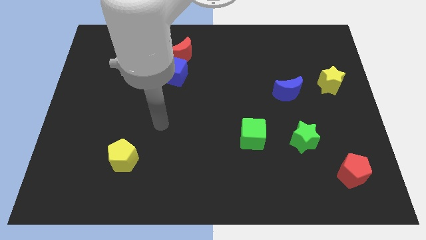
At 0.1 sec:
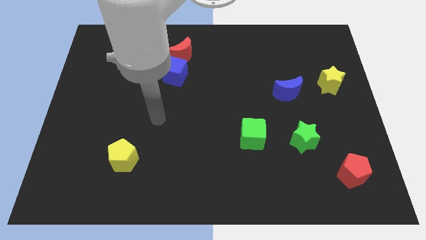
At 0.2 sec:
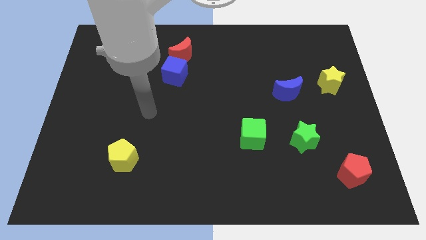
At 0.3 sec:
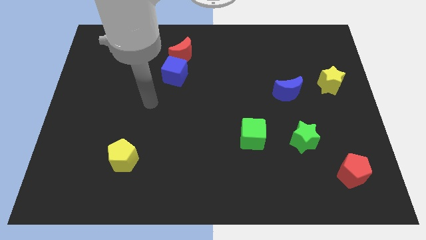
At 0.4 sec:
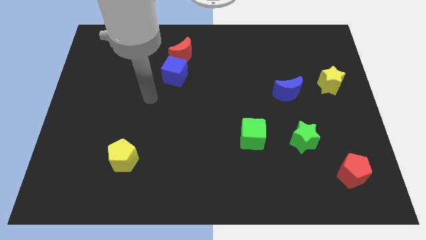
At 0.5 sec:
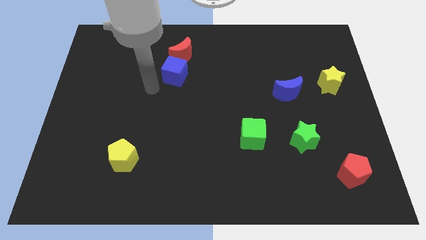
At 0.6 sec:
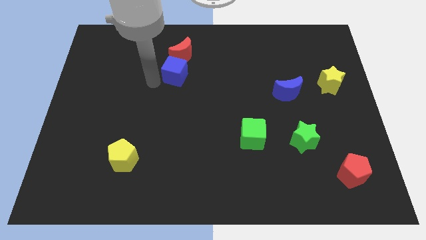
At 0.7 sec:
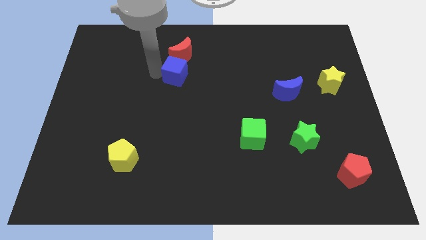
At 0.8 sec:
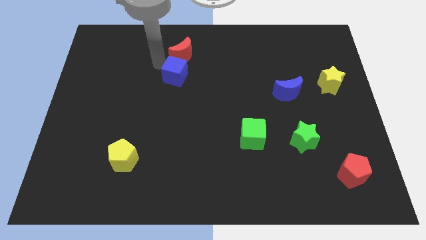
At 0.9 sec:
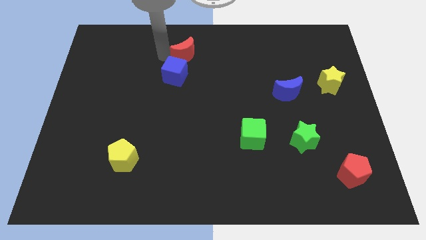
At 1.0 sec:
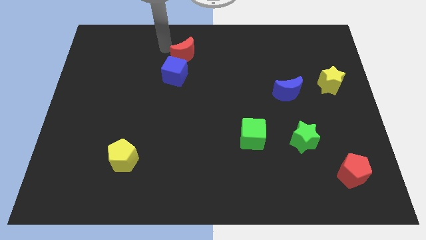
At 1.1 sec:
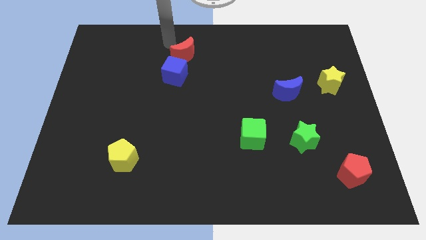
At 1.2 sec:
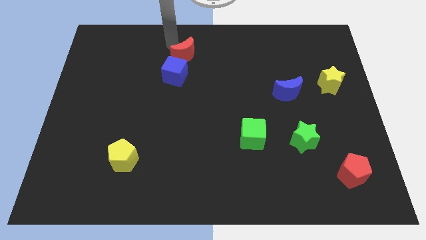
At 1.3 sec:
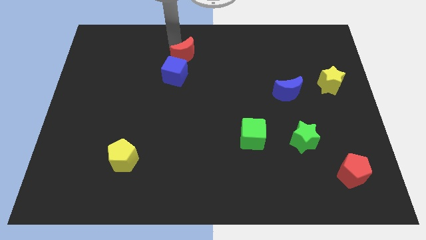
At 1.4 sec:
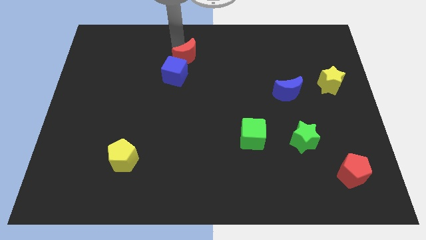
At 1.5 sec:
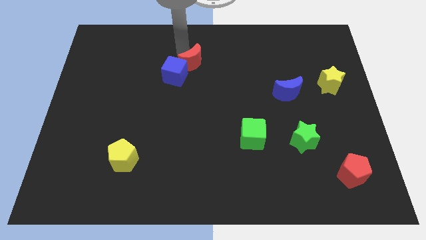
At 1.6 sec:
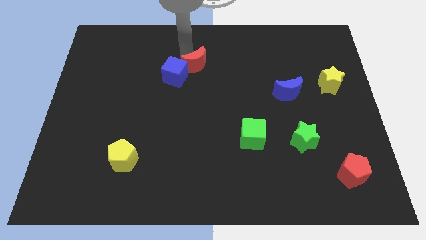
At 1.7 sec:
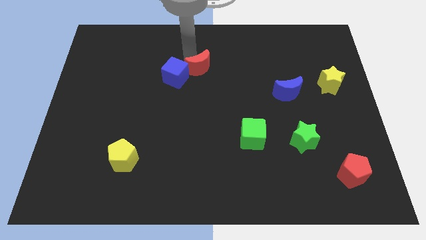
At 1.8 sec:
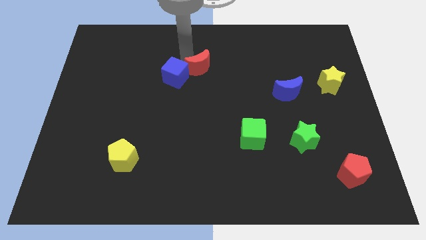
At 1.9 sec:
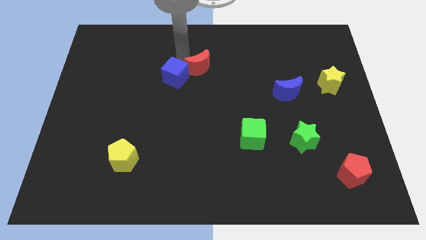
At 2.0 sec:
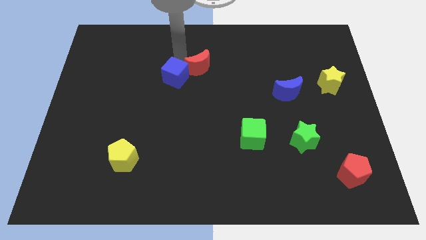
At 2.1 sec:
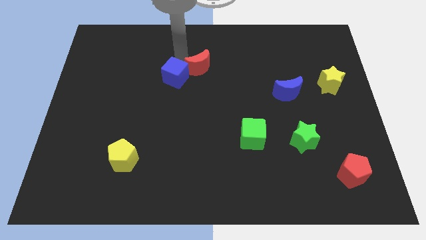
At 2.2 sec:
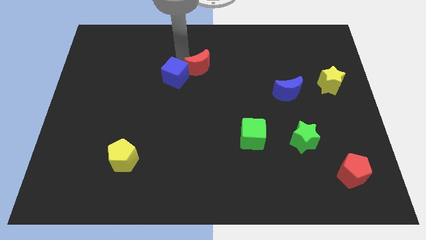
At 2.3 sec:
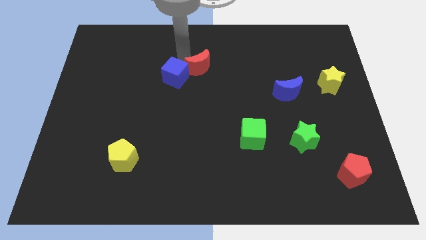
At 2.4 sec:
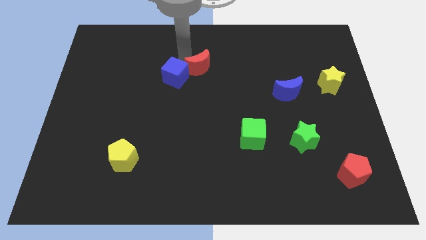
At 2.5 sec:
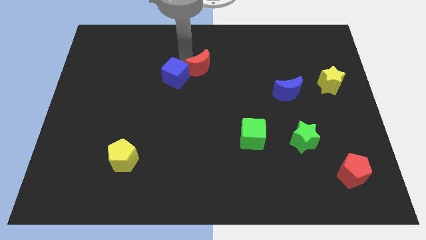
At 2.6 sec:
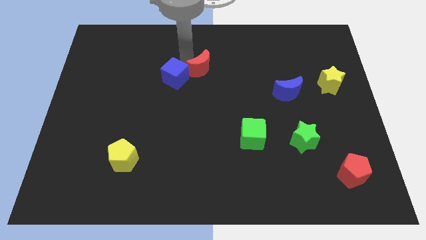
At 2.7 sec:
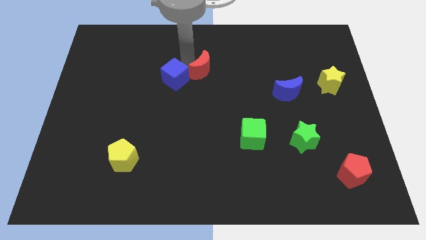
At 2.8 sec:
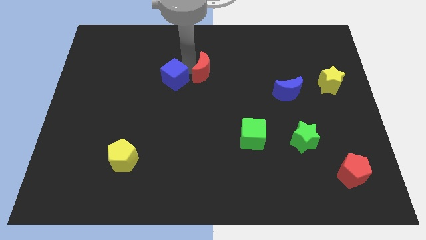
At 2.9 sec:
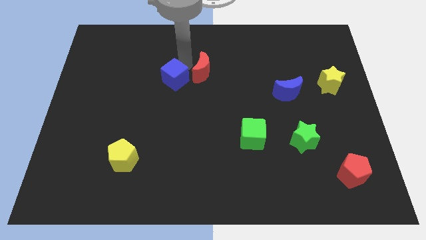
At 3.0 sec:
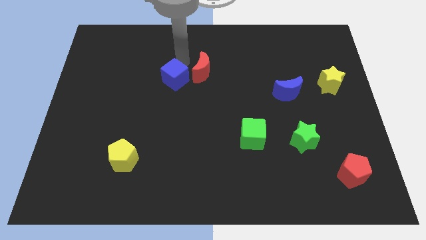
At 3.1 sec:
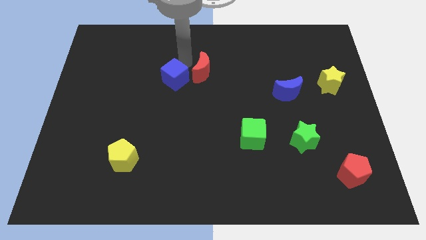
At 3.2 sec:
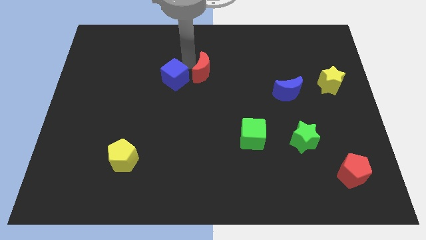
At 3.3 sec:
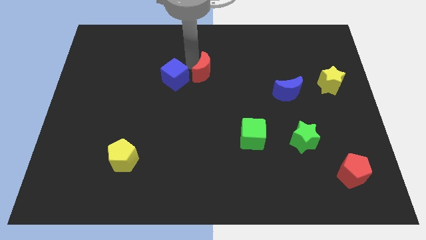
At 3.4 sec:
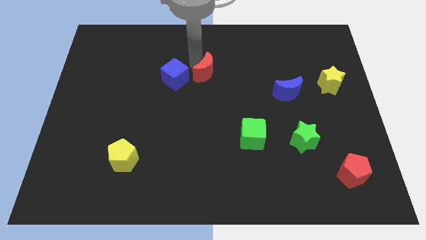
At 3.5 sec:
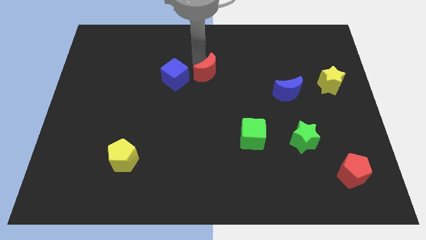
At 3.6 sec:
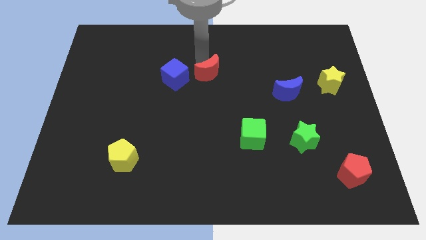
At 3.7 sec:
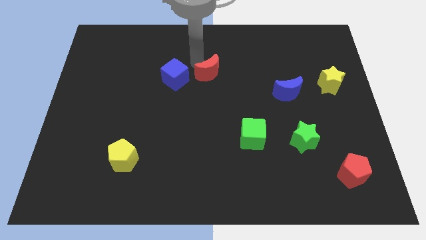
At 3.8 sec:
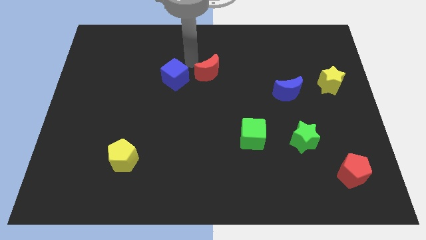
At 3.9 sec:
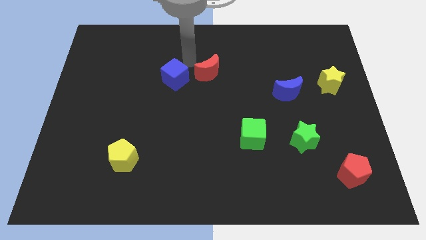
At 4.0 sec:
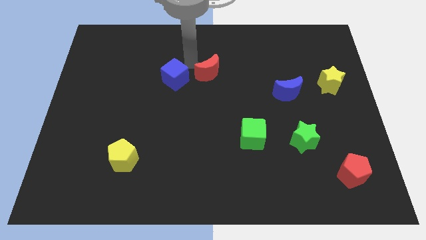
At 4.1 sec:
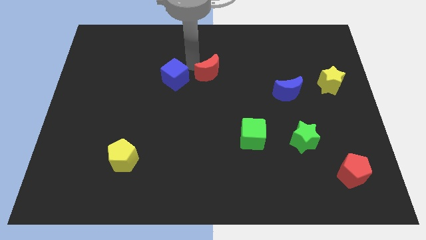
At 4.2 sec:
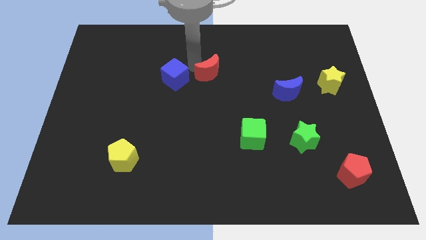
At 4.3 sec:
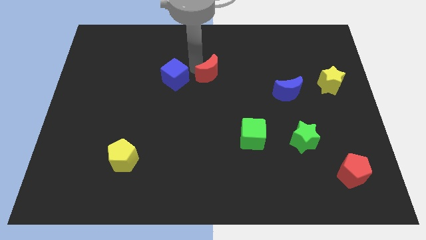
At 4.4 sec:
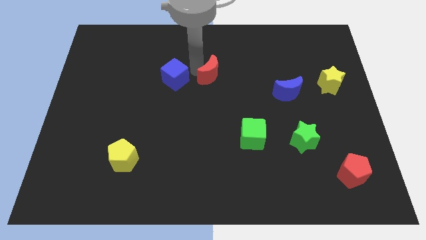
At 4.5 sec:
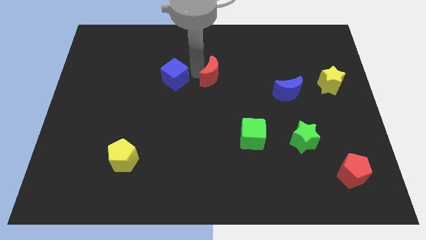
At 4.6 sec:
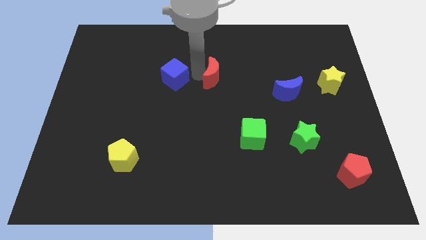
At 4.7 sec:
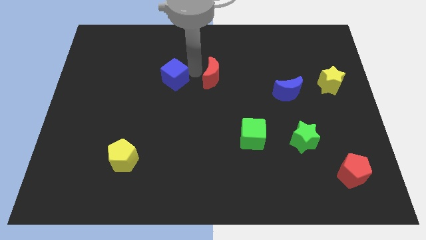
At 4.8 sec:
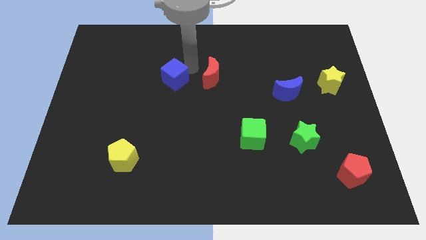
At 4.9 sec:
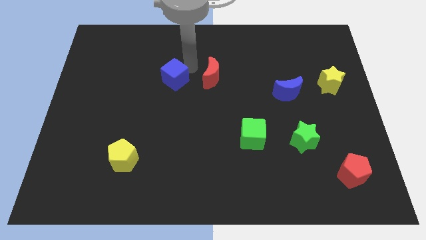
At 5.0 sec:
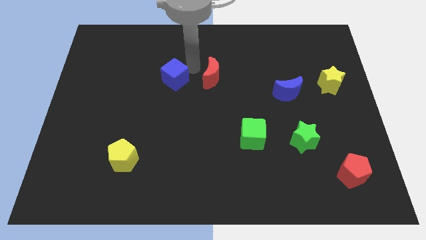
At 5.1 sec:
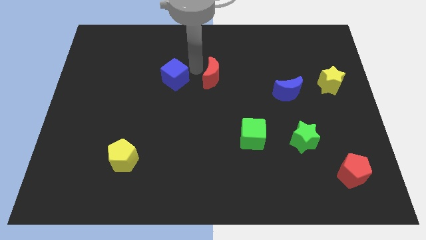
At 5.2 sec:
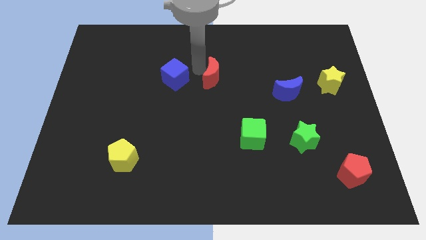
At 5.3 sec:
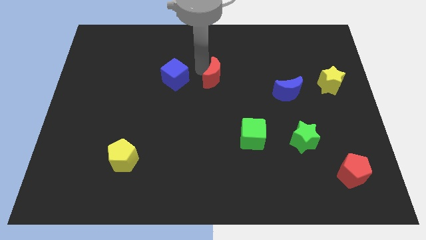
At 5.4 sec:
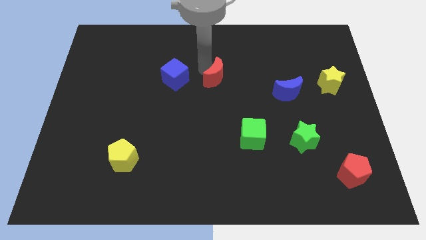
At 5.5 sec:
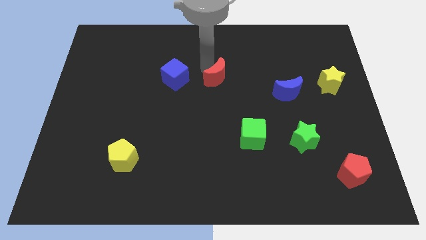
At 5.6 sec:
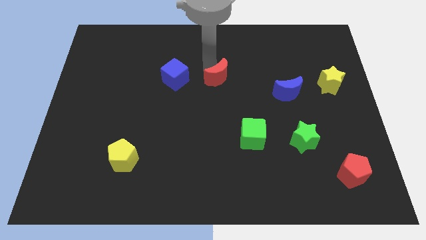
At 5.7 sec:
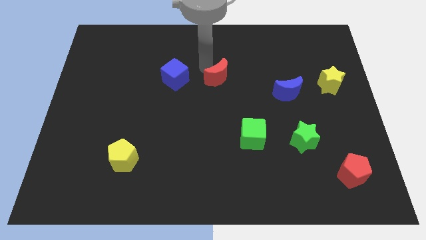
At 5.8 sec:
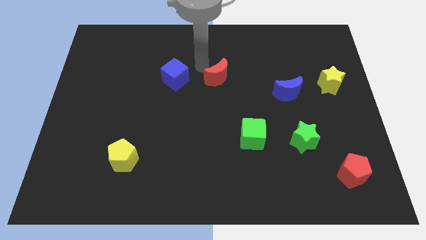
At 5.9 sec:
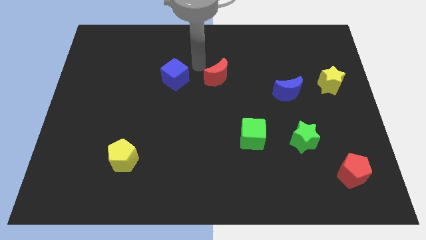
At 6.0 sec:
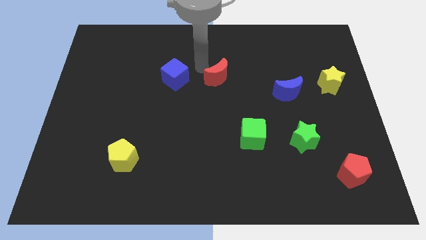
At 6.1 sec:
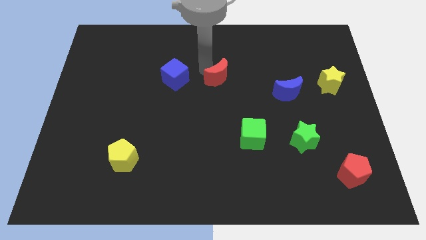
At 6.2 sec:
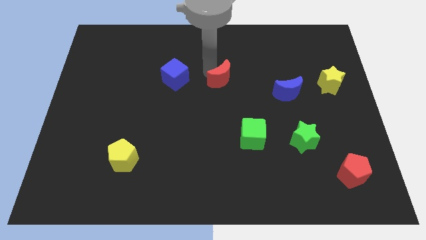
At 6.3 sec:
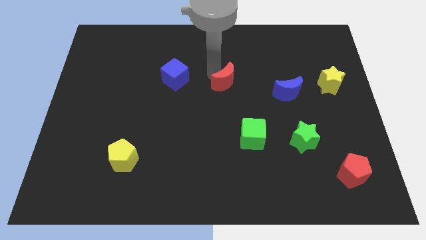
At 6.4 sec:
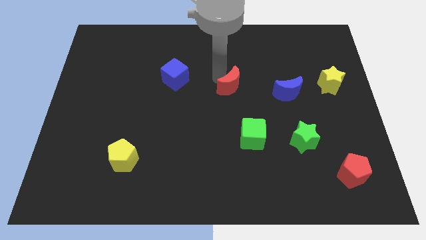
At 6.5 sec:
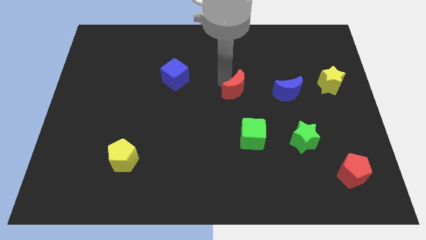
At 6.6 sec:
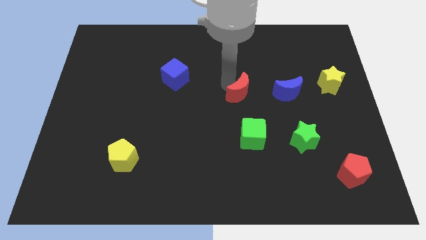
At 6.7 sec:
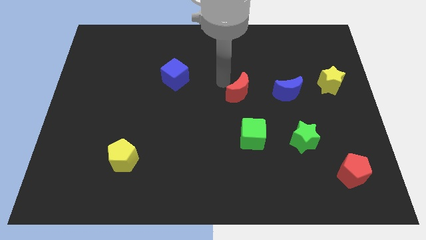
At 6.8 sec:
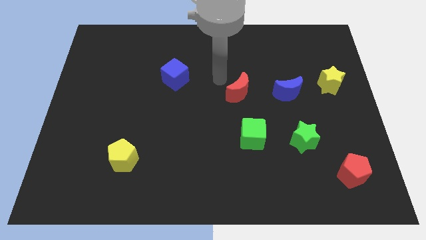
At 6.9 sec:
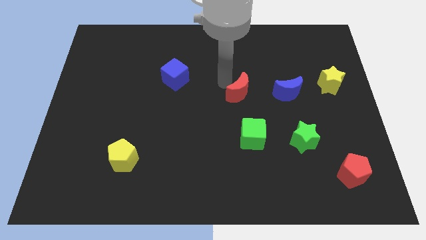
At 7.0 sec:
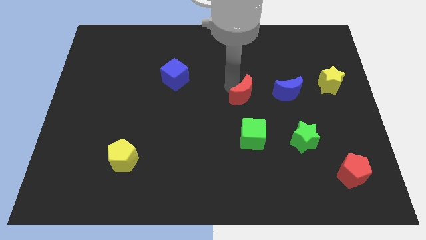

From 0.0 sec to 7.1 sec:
move the red moon diagonally downwards and to the right

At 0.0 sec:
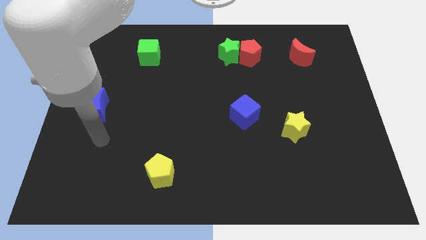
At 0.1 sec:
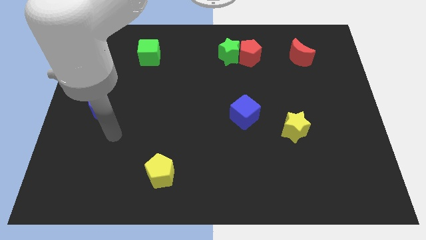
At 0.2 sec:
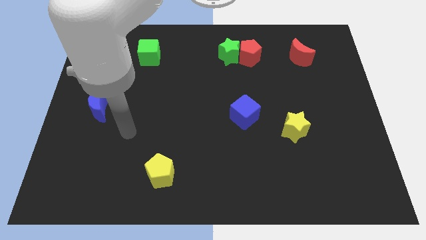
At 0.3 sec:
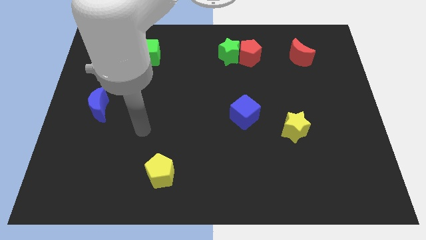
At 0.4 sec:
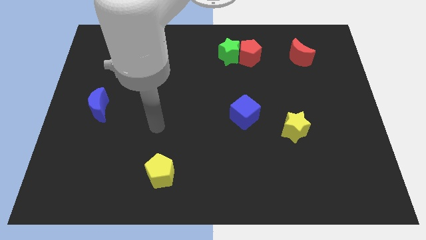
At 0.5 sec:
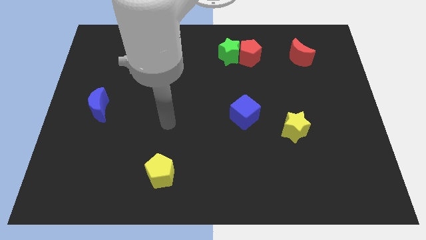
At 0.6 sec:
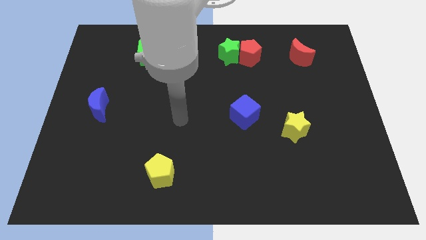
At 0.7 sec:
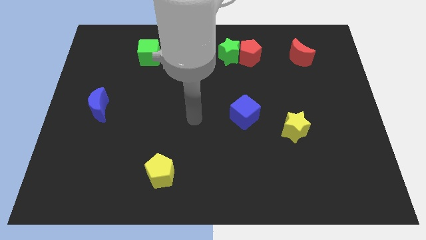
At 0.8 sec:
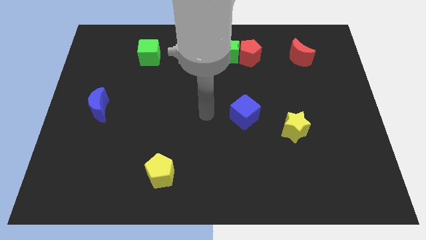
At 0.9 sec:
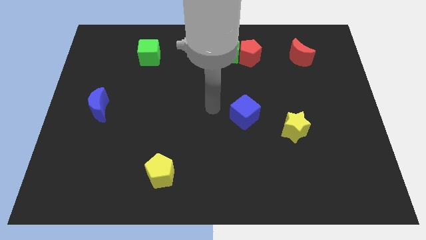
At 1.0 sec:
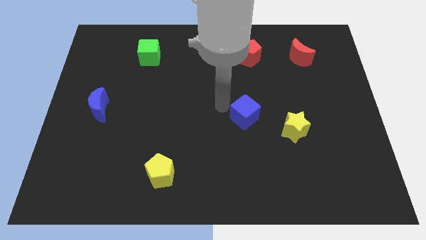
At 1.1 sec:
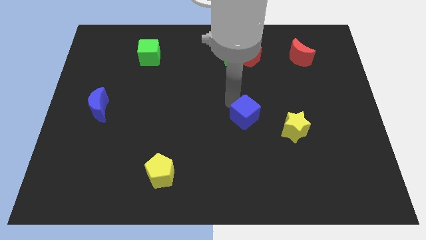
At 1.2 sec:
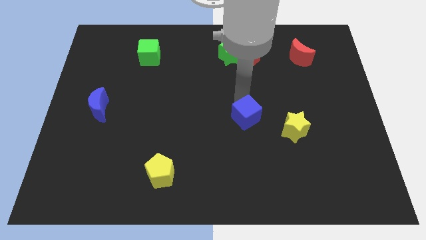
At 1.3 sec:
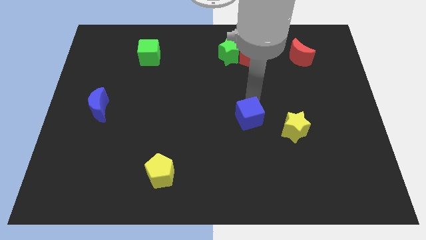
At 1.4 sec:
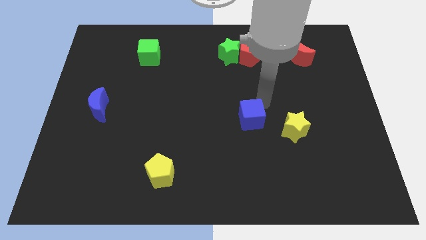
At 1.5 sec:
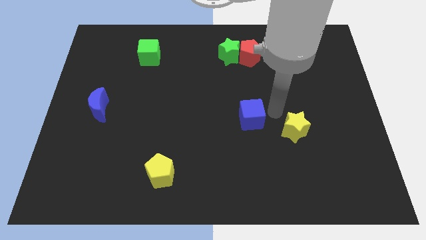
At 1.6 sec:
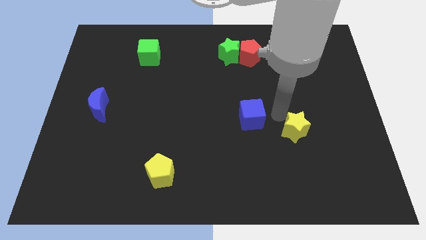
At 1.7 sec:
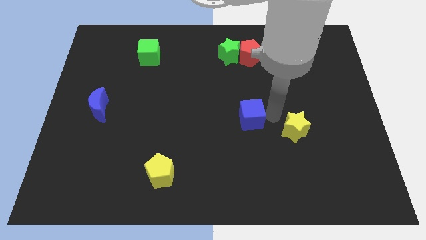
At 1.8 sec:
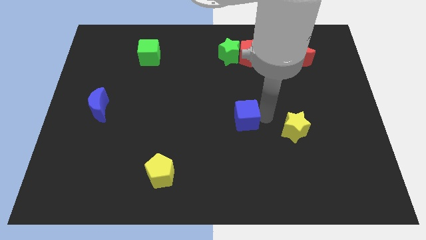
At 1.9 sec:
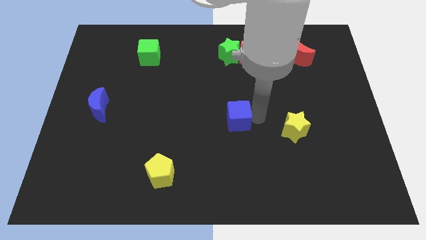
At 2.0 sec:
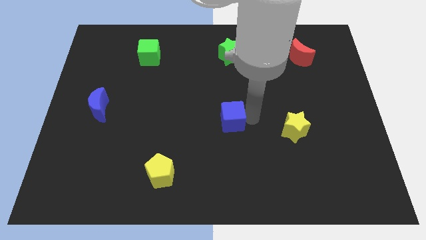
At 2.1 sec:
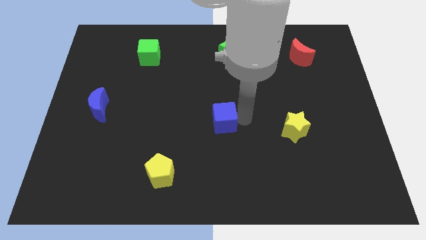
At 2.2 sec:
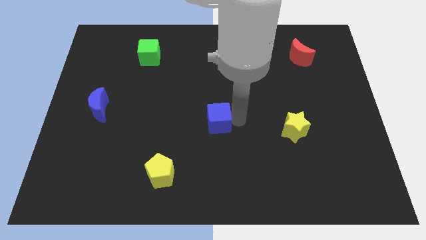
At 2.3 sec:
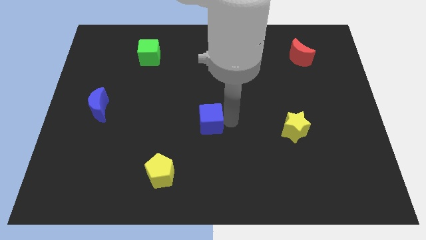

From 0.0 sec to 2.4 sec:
slightly move the blue cube to the left
